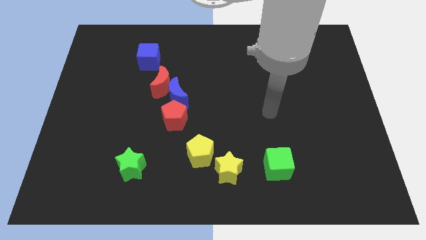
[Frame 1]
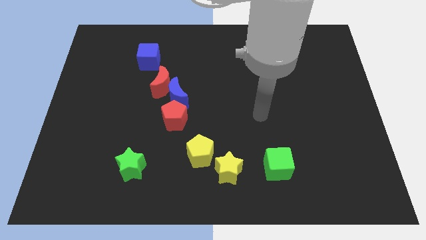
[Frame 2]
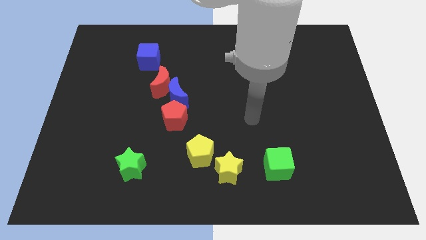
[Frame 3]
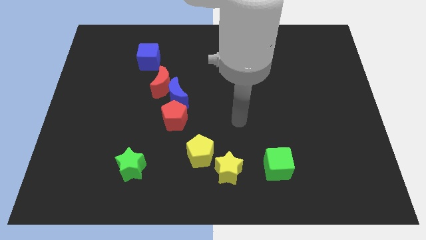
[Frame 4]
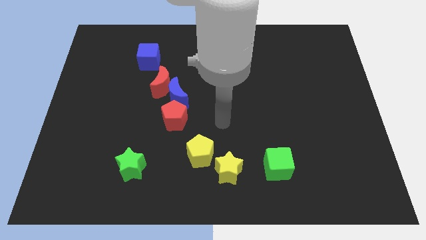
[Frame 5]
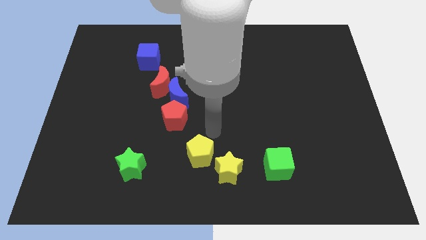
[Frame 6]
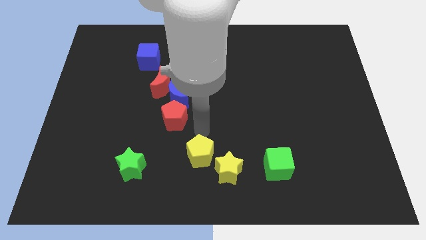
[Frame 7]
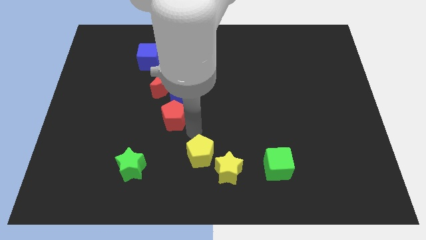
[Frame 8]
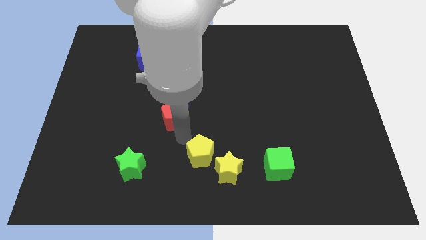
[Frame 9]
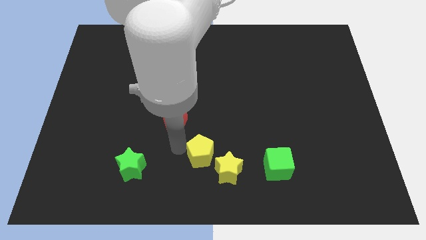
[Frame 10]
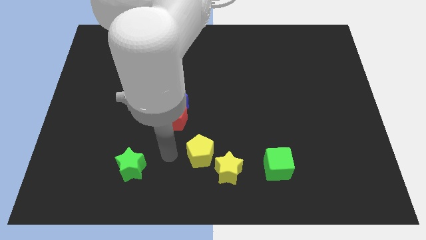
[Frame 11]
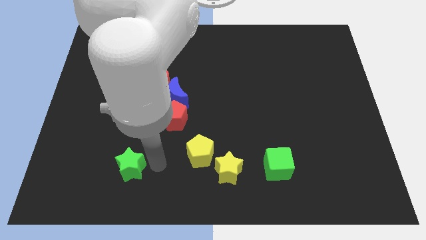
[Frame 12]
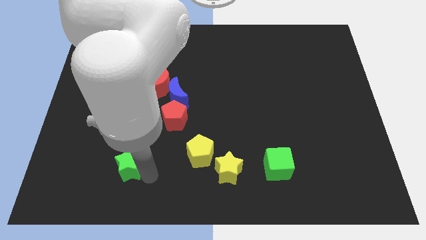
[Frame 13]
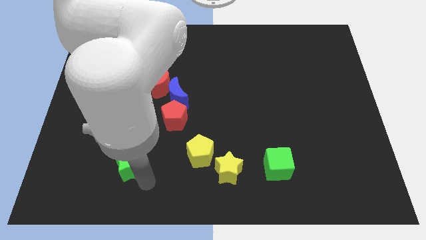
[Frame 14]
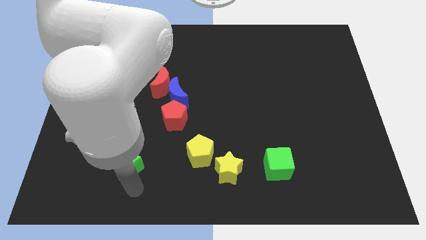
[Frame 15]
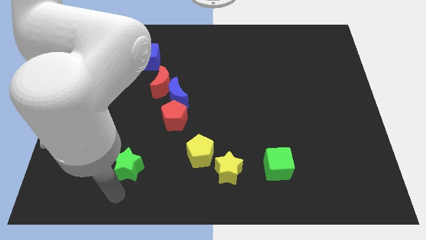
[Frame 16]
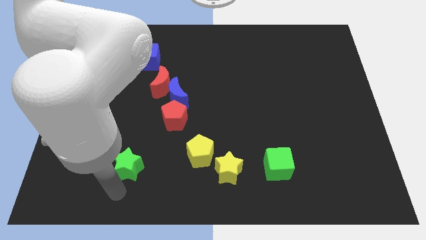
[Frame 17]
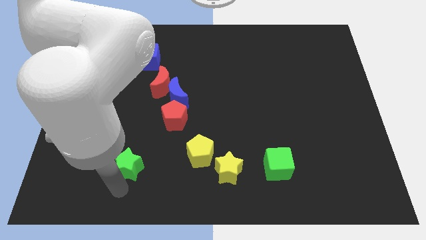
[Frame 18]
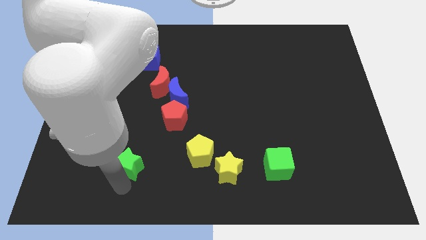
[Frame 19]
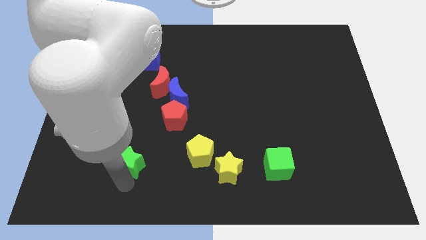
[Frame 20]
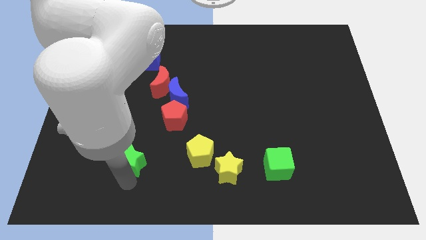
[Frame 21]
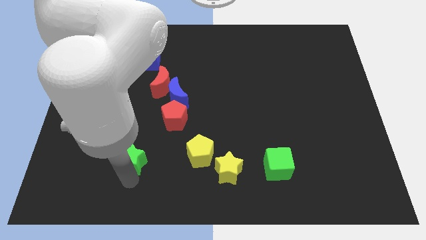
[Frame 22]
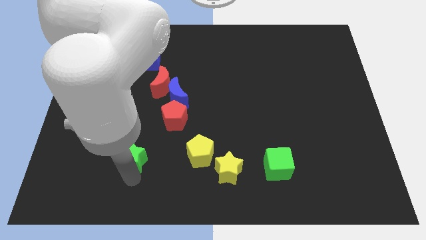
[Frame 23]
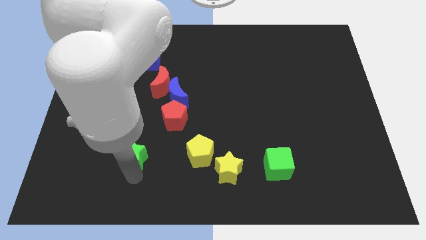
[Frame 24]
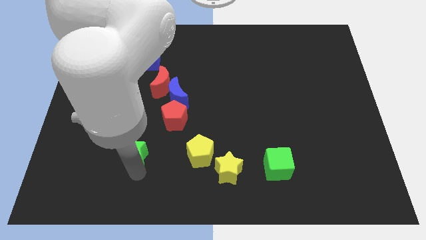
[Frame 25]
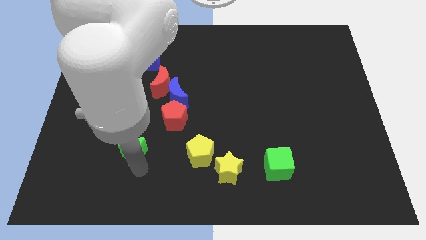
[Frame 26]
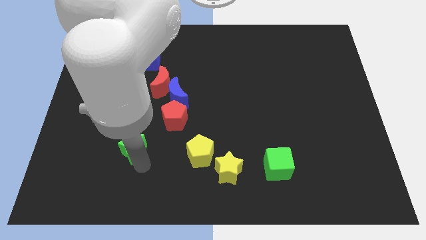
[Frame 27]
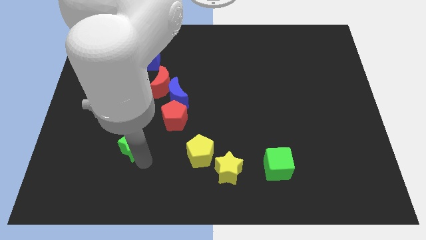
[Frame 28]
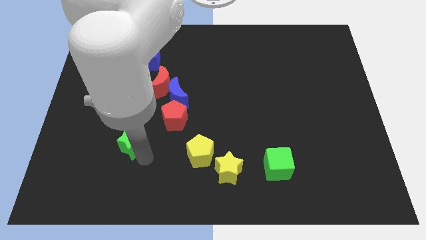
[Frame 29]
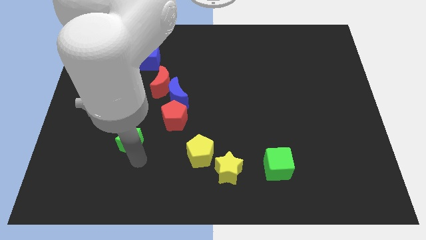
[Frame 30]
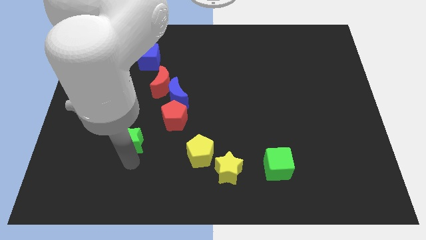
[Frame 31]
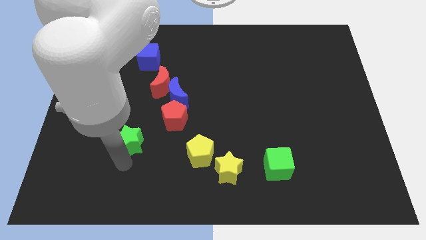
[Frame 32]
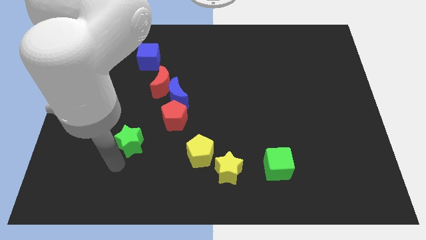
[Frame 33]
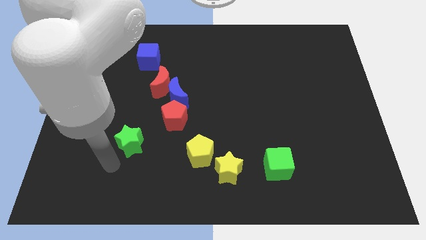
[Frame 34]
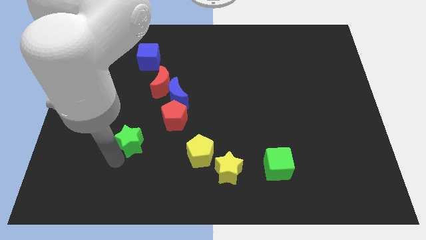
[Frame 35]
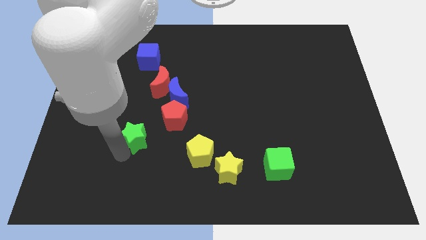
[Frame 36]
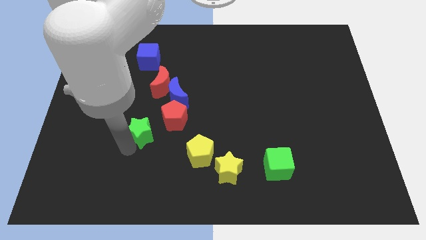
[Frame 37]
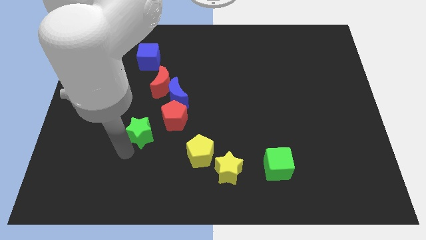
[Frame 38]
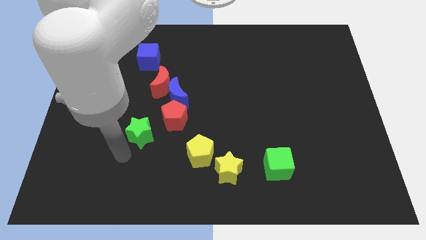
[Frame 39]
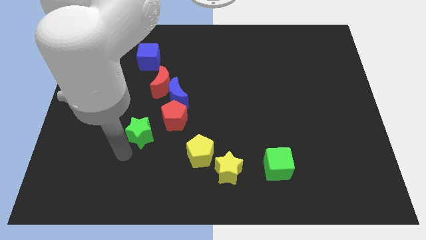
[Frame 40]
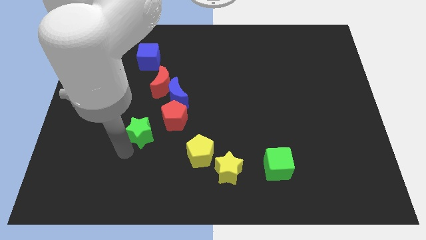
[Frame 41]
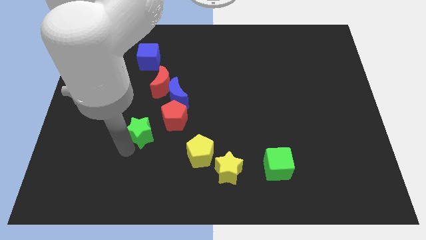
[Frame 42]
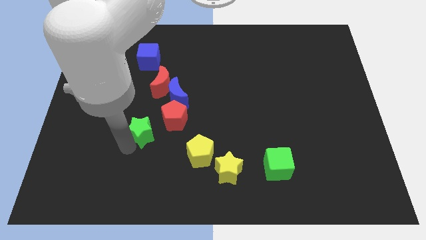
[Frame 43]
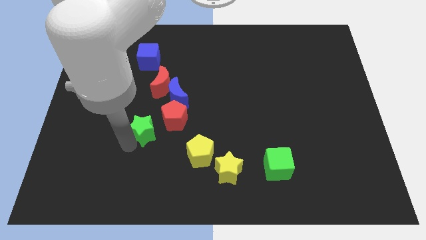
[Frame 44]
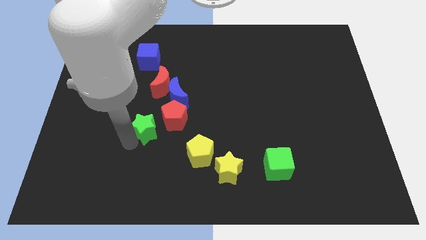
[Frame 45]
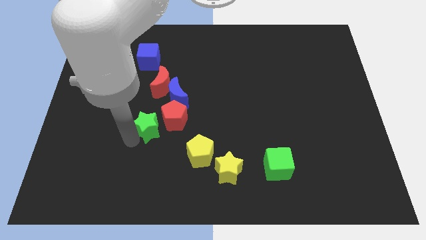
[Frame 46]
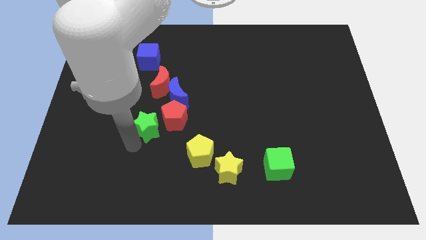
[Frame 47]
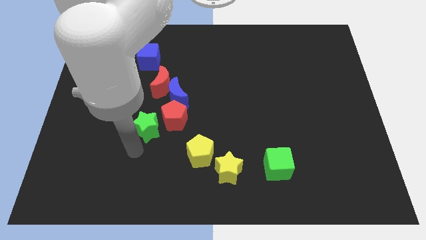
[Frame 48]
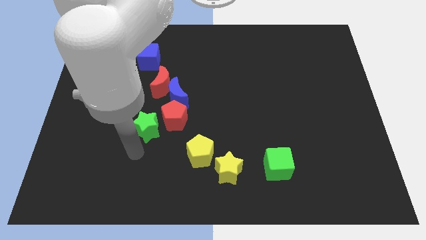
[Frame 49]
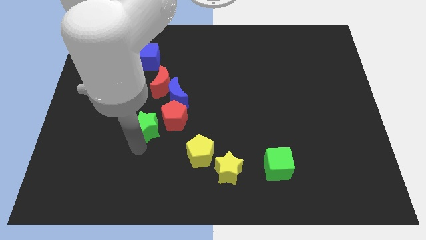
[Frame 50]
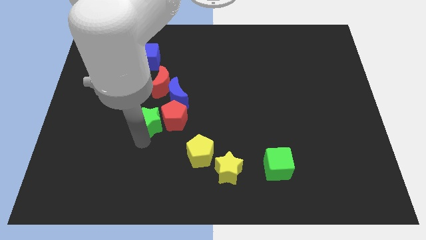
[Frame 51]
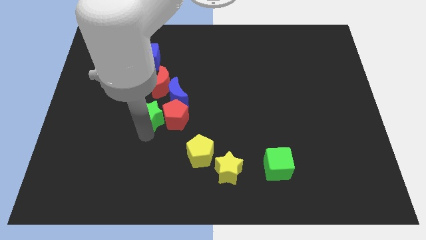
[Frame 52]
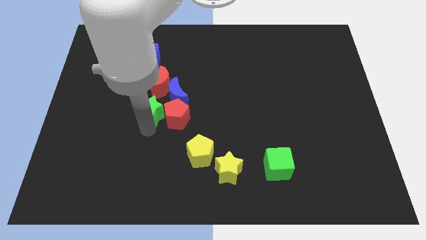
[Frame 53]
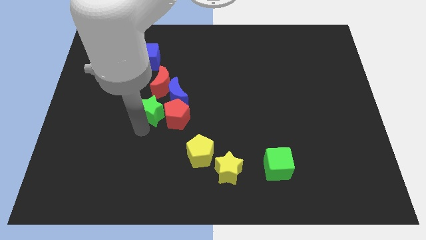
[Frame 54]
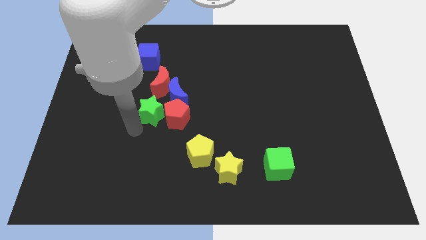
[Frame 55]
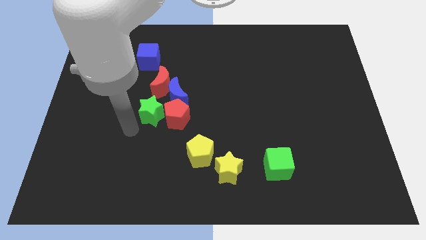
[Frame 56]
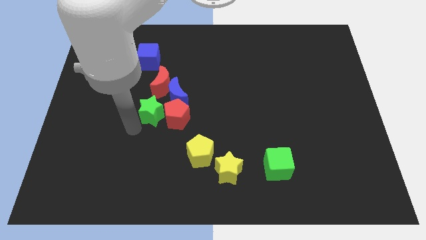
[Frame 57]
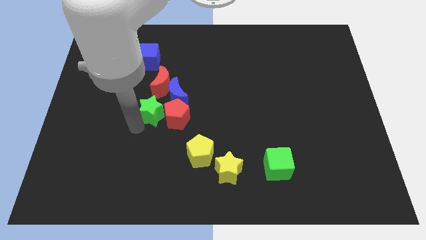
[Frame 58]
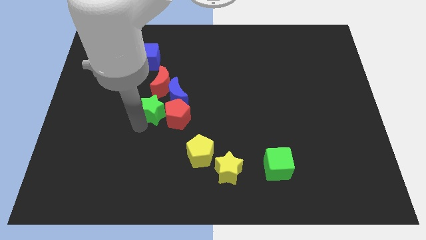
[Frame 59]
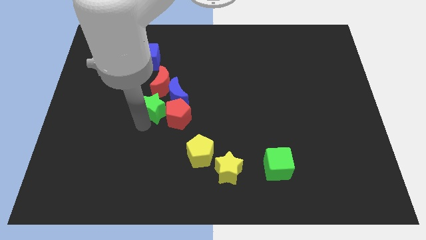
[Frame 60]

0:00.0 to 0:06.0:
move the green star close to the blue moon

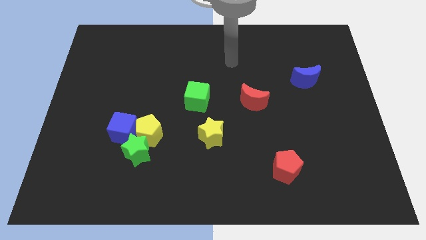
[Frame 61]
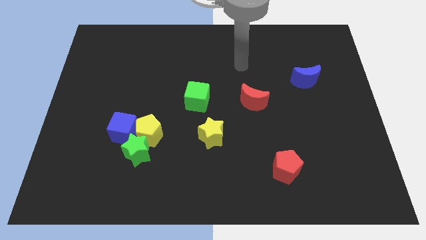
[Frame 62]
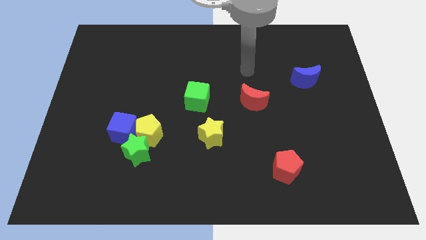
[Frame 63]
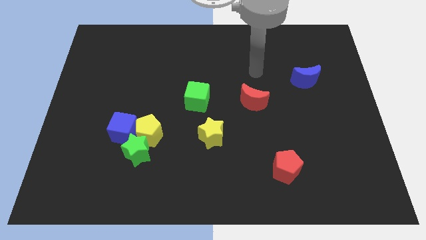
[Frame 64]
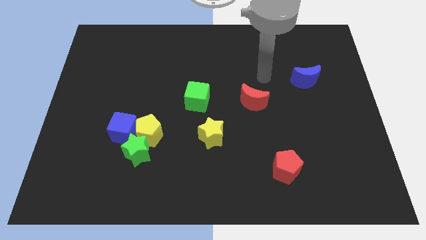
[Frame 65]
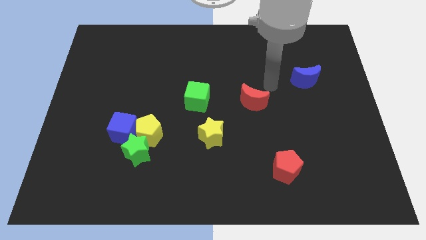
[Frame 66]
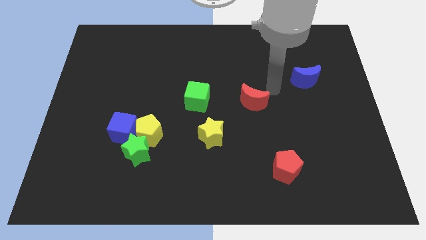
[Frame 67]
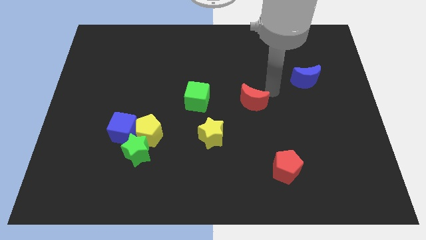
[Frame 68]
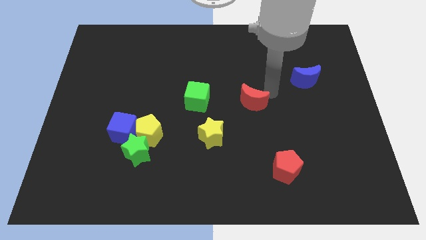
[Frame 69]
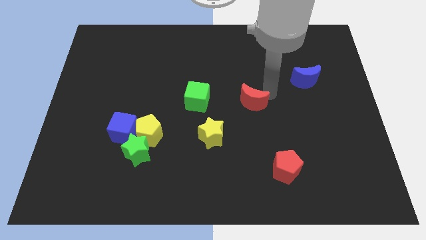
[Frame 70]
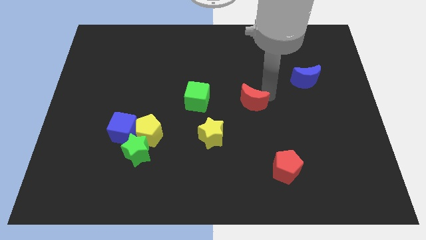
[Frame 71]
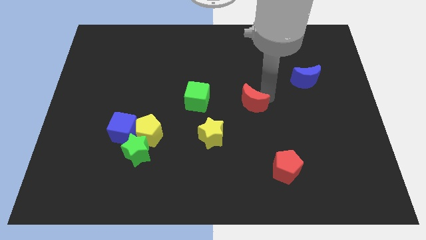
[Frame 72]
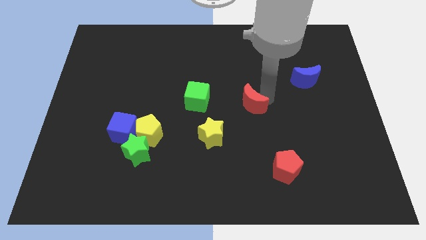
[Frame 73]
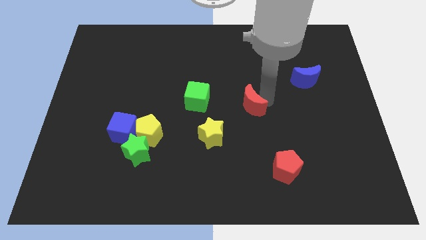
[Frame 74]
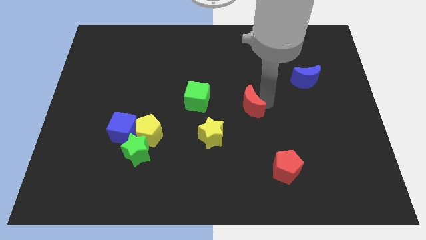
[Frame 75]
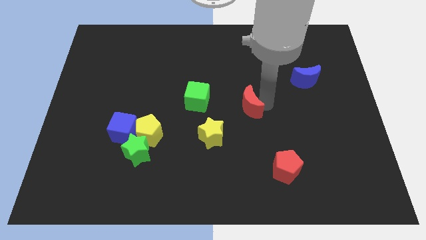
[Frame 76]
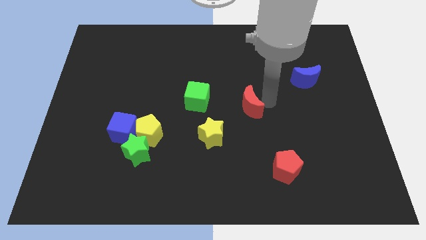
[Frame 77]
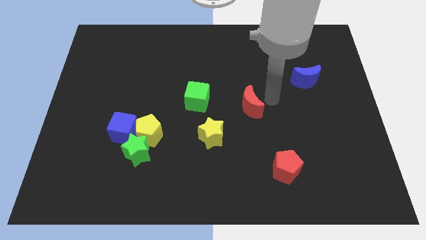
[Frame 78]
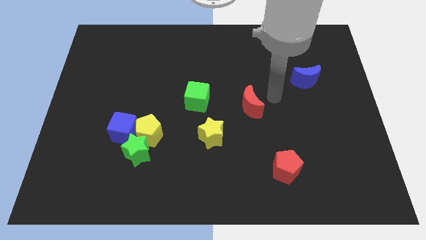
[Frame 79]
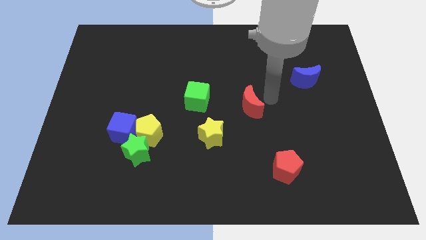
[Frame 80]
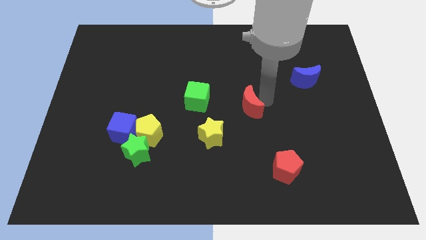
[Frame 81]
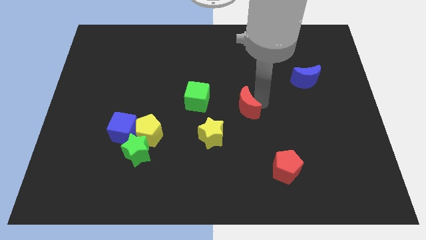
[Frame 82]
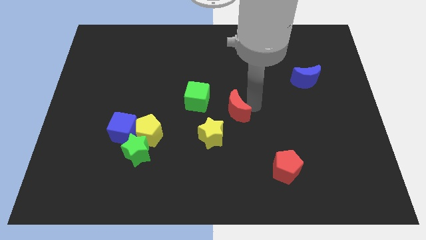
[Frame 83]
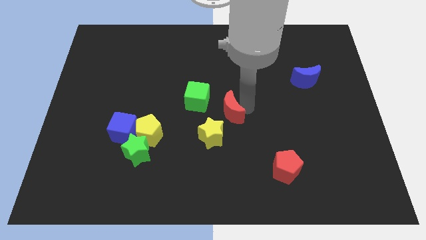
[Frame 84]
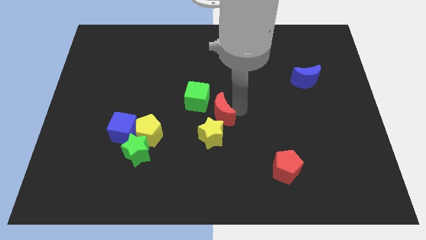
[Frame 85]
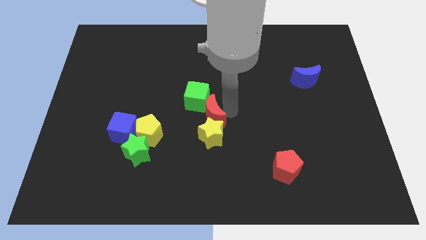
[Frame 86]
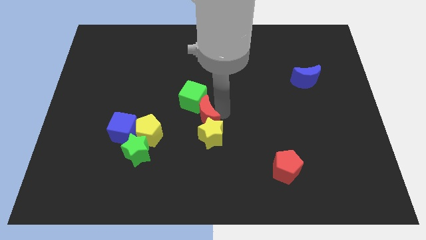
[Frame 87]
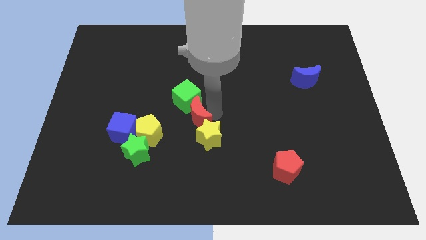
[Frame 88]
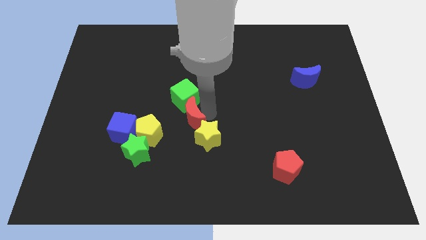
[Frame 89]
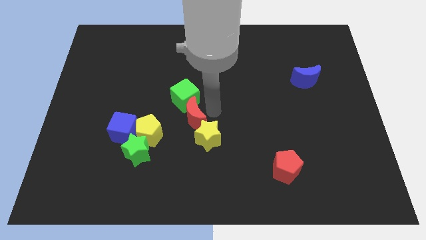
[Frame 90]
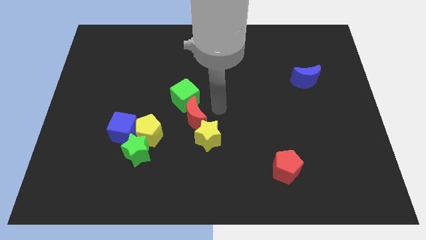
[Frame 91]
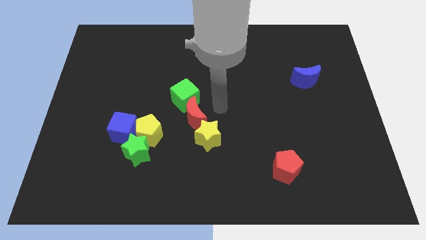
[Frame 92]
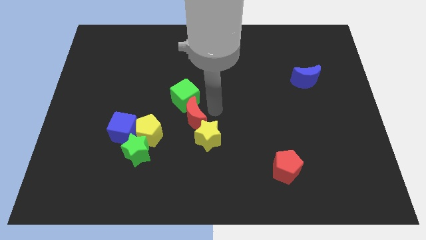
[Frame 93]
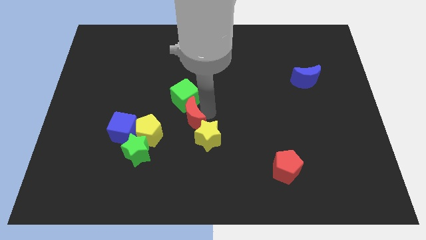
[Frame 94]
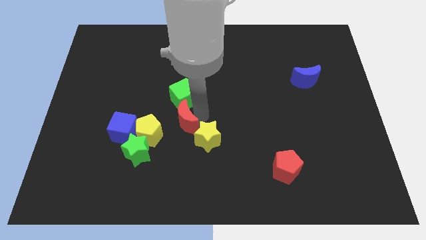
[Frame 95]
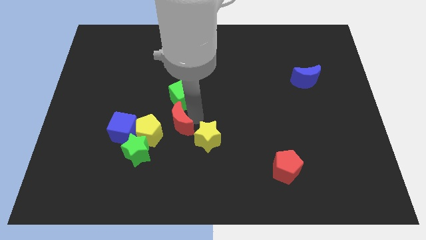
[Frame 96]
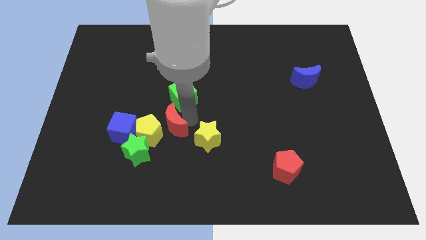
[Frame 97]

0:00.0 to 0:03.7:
put the red moon next to the yellow pentagon
